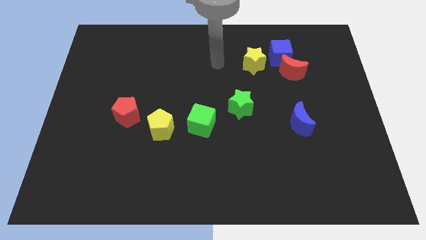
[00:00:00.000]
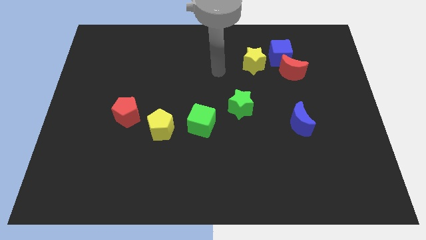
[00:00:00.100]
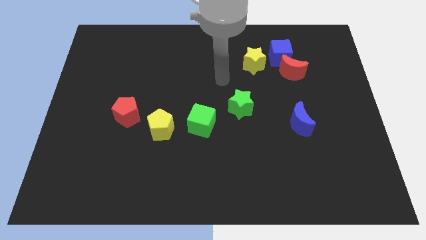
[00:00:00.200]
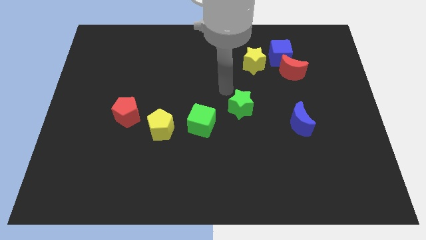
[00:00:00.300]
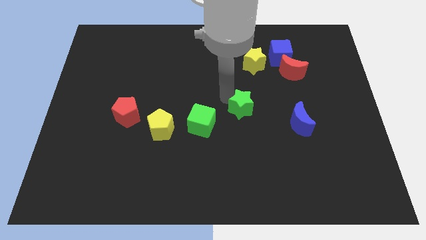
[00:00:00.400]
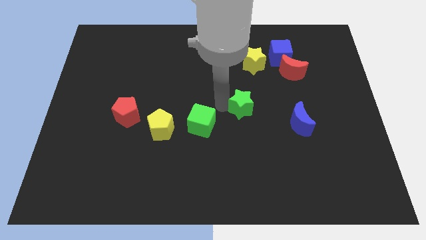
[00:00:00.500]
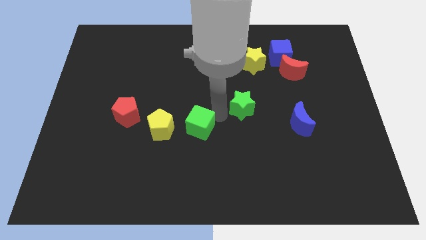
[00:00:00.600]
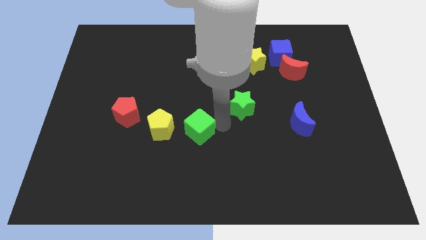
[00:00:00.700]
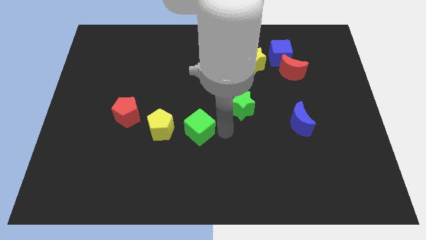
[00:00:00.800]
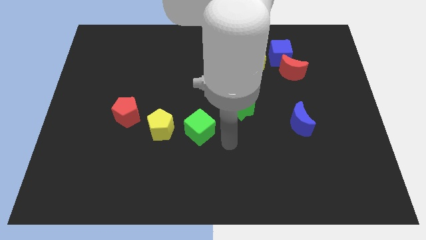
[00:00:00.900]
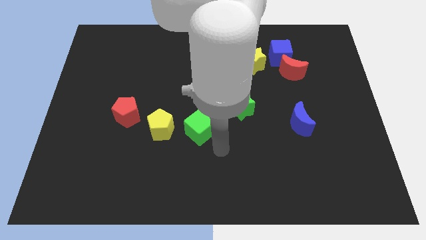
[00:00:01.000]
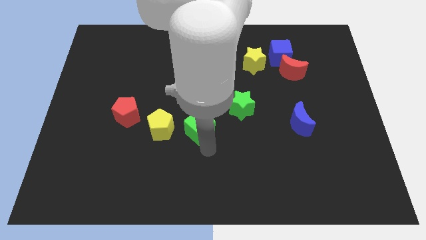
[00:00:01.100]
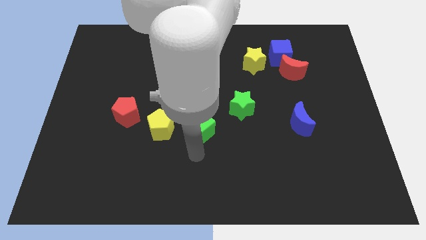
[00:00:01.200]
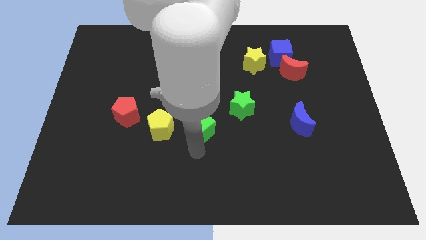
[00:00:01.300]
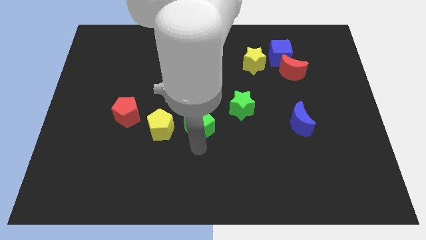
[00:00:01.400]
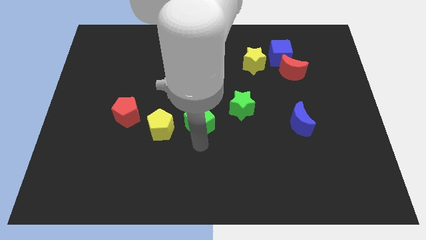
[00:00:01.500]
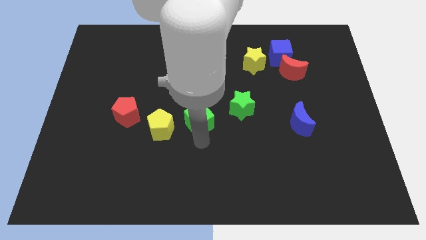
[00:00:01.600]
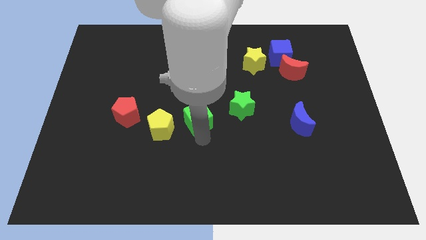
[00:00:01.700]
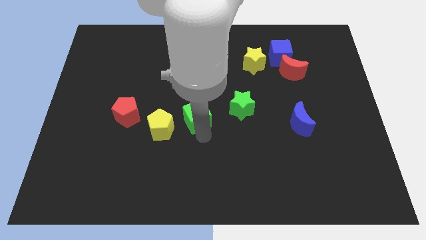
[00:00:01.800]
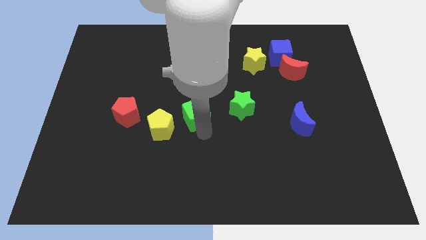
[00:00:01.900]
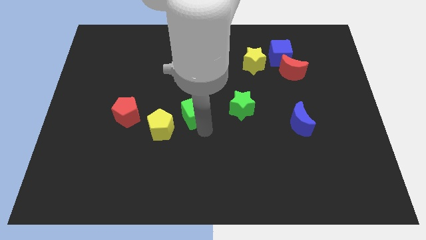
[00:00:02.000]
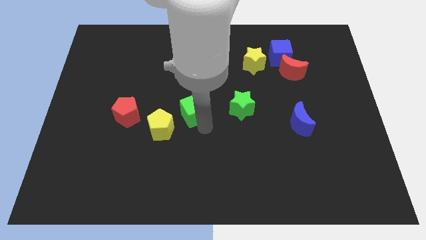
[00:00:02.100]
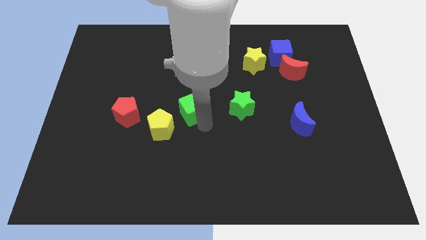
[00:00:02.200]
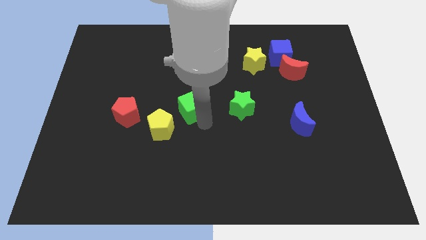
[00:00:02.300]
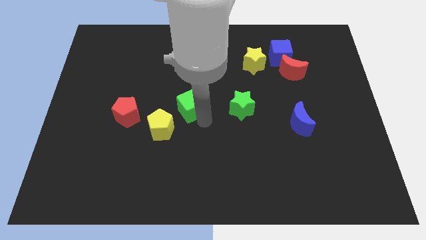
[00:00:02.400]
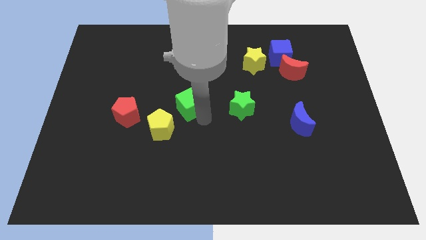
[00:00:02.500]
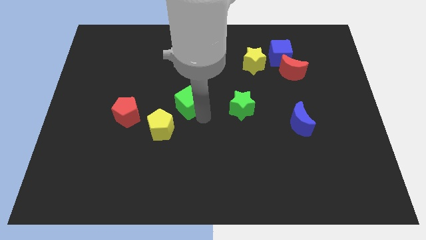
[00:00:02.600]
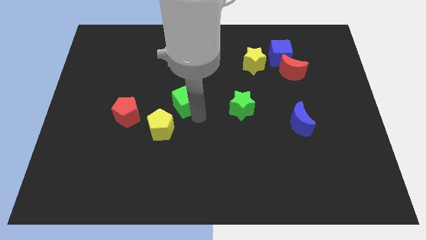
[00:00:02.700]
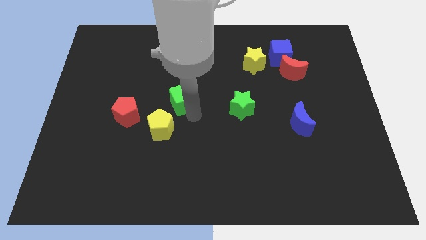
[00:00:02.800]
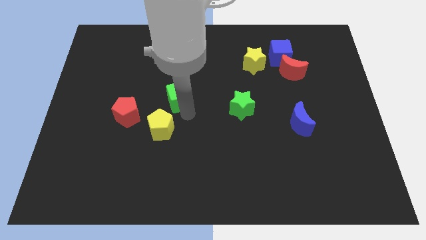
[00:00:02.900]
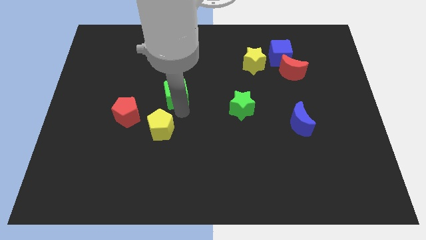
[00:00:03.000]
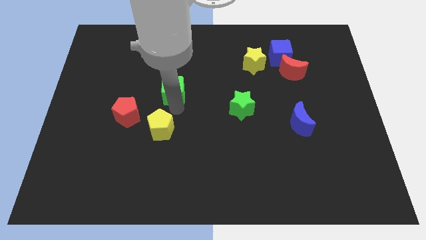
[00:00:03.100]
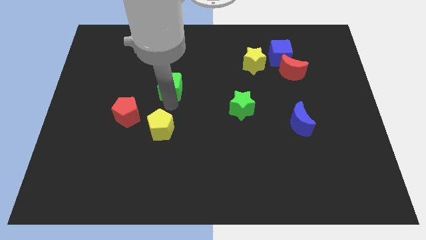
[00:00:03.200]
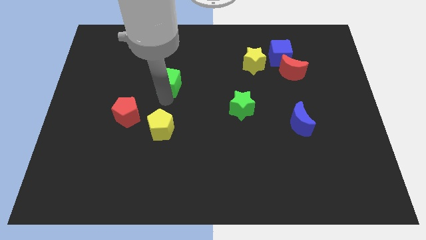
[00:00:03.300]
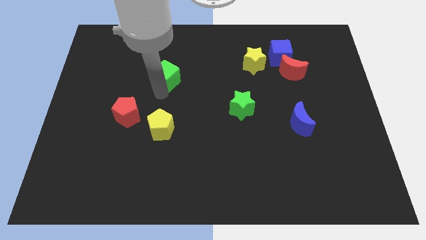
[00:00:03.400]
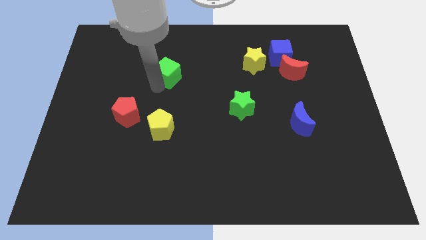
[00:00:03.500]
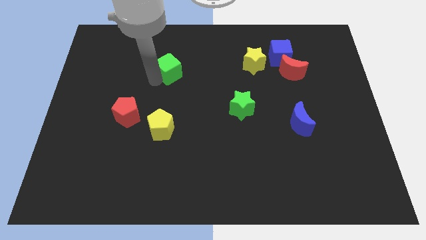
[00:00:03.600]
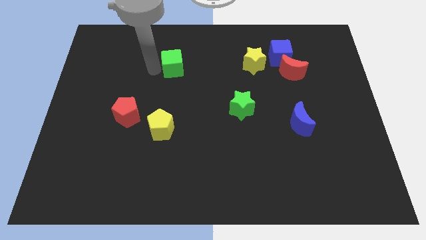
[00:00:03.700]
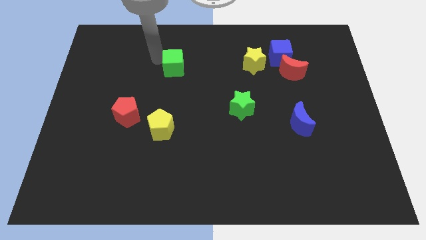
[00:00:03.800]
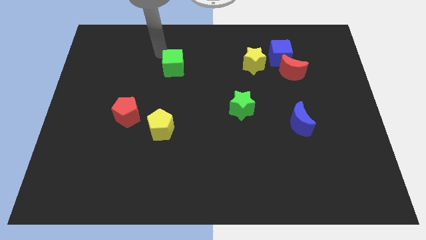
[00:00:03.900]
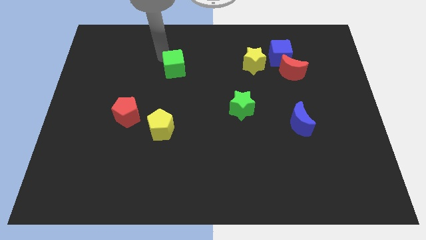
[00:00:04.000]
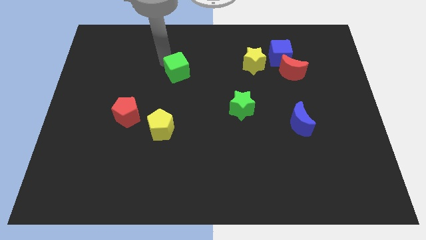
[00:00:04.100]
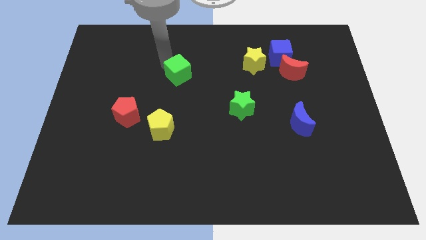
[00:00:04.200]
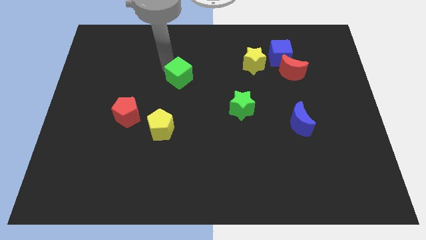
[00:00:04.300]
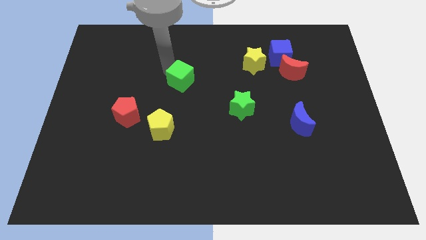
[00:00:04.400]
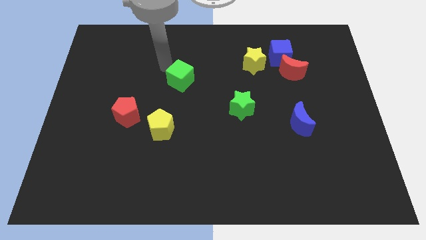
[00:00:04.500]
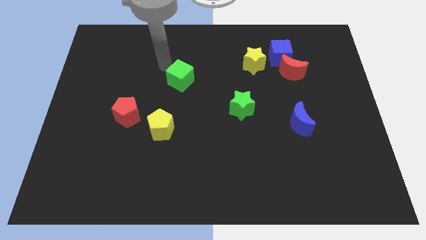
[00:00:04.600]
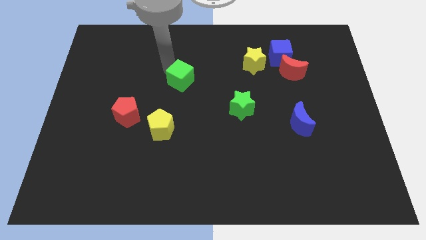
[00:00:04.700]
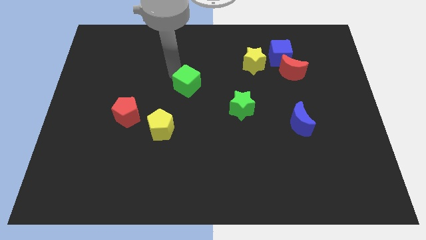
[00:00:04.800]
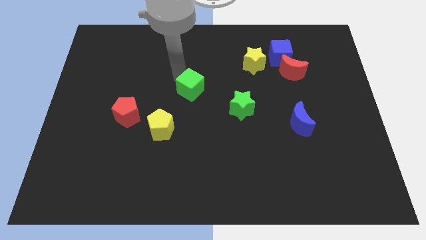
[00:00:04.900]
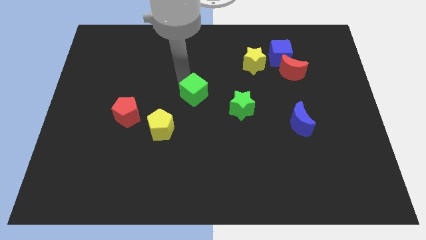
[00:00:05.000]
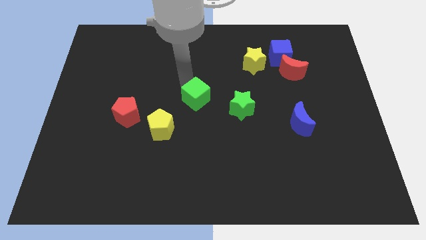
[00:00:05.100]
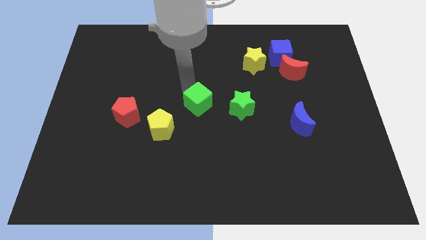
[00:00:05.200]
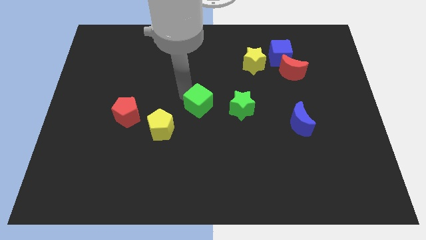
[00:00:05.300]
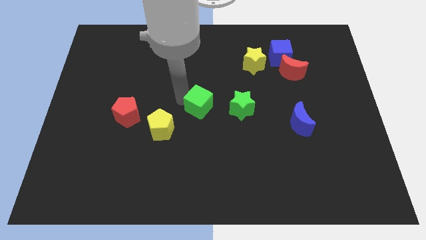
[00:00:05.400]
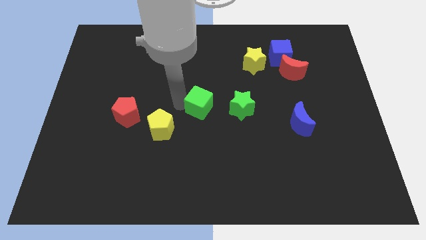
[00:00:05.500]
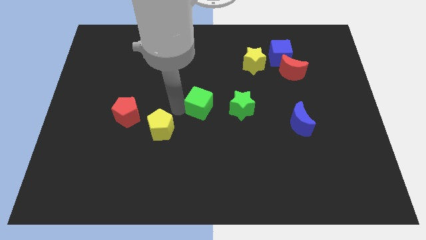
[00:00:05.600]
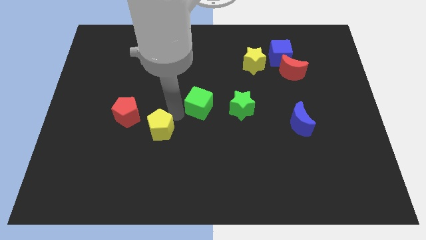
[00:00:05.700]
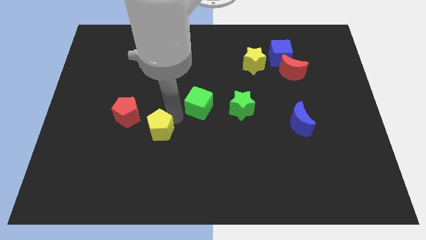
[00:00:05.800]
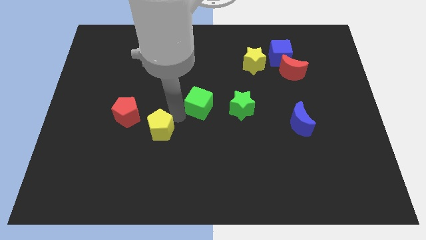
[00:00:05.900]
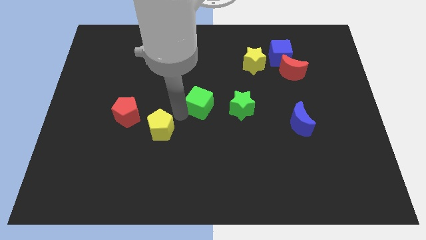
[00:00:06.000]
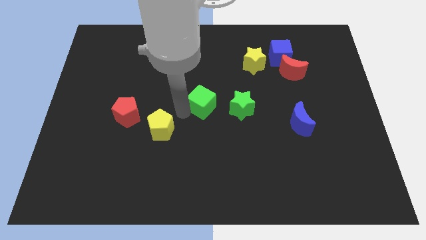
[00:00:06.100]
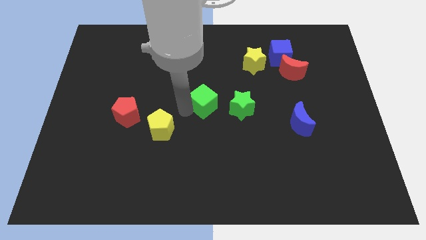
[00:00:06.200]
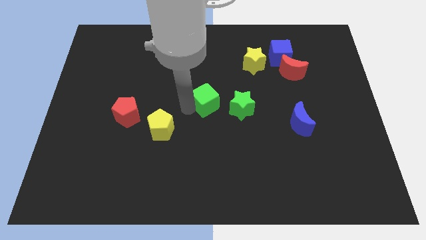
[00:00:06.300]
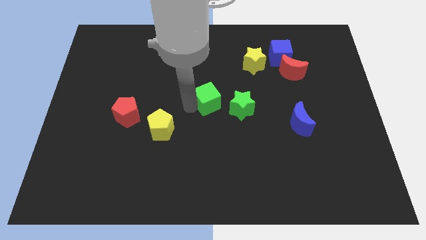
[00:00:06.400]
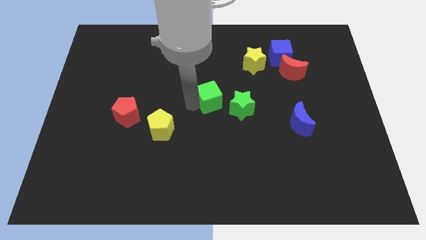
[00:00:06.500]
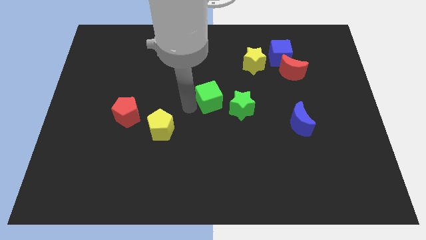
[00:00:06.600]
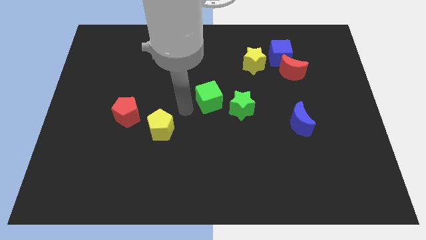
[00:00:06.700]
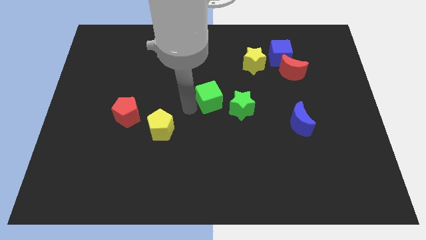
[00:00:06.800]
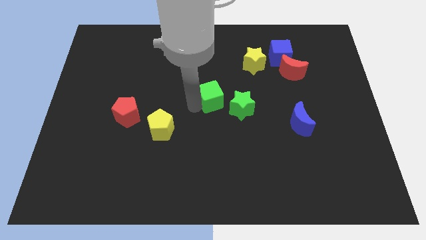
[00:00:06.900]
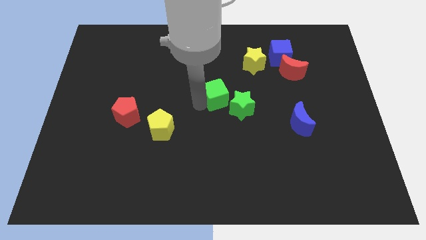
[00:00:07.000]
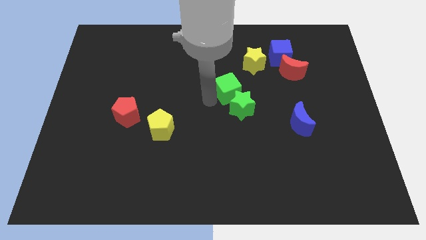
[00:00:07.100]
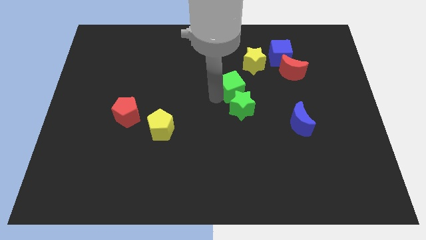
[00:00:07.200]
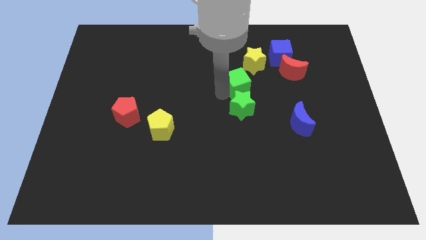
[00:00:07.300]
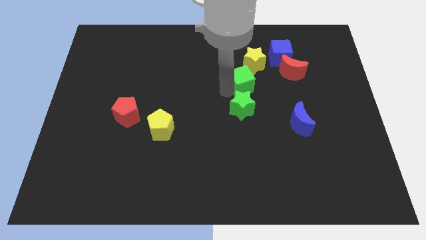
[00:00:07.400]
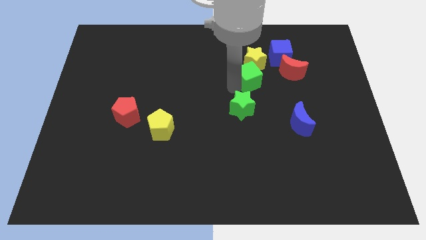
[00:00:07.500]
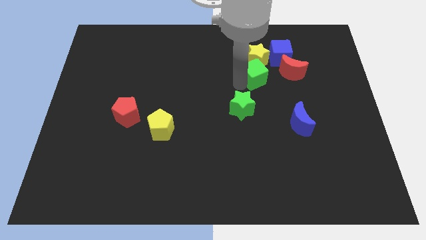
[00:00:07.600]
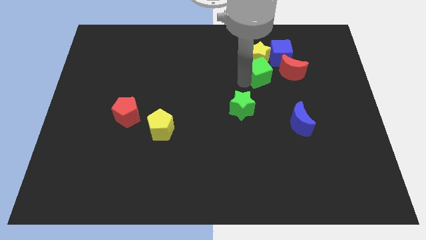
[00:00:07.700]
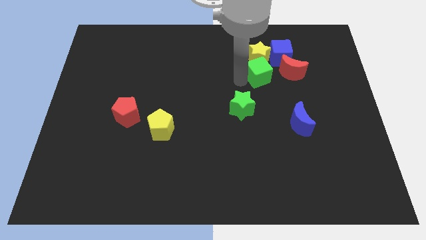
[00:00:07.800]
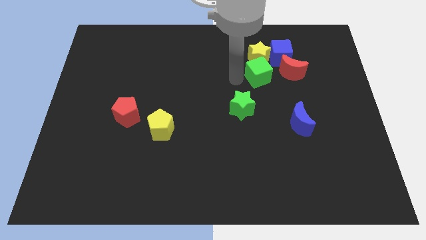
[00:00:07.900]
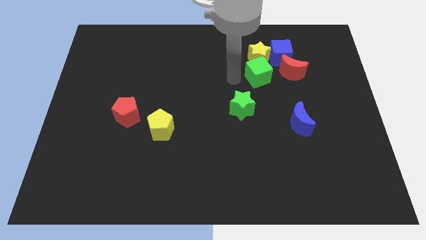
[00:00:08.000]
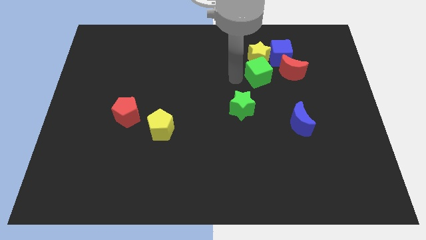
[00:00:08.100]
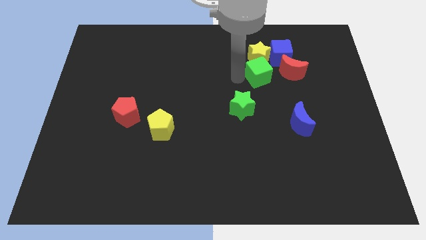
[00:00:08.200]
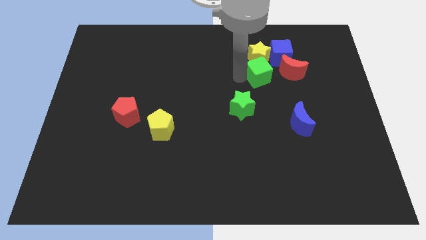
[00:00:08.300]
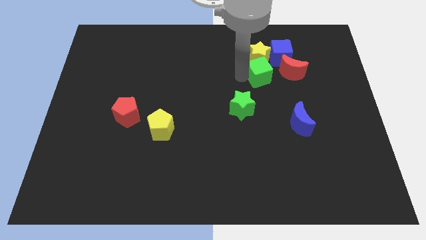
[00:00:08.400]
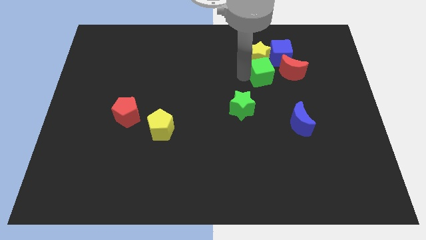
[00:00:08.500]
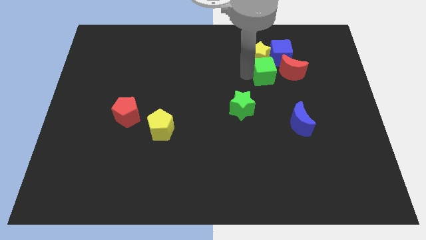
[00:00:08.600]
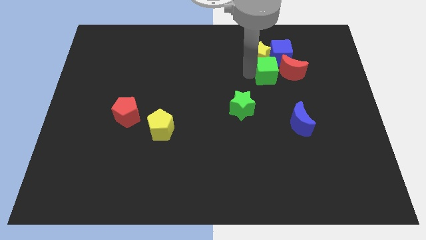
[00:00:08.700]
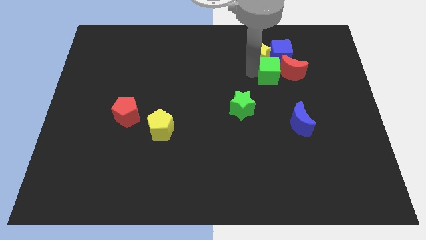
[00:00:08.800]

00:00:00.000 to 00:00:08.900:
move the green cube towards the red moon
